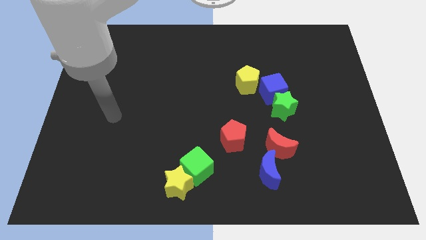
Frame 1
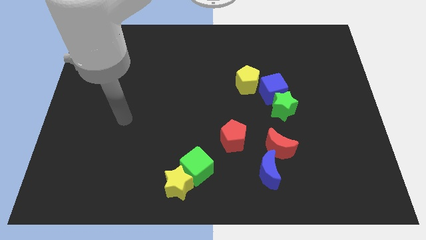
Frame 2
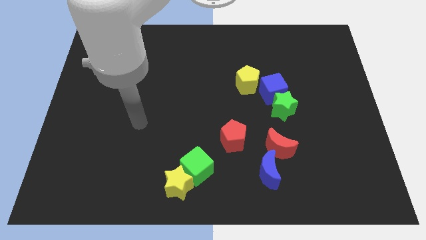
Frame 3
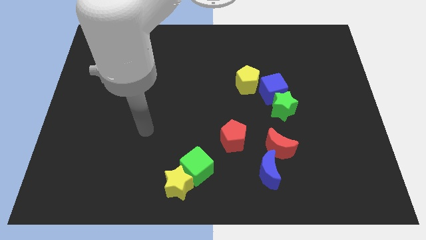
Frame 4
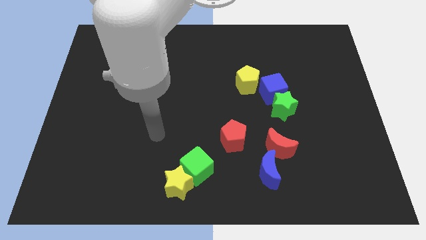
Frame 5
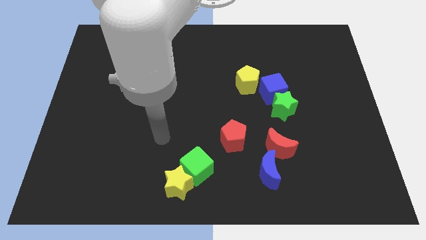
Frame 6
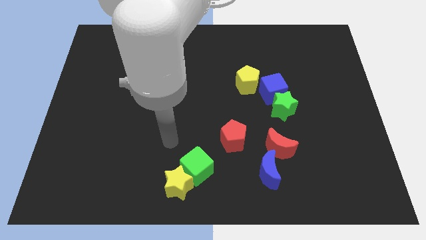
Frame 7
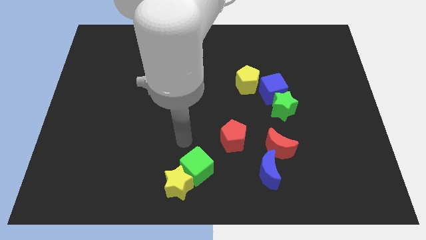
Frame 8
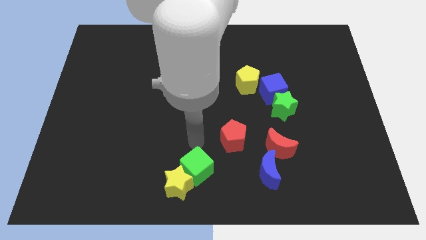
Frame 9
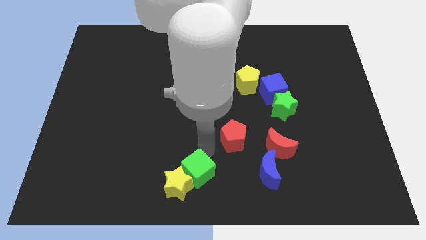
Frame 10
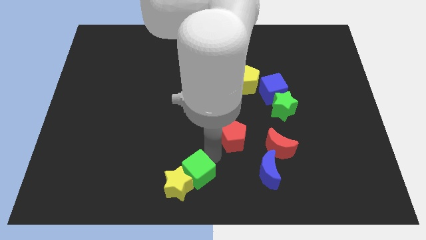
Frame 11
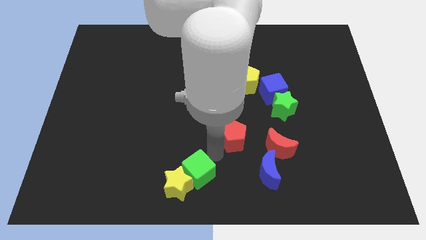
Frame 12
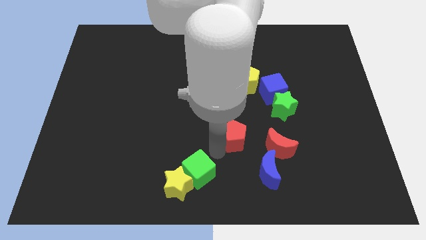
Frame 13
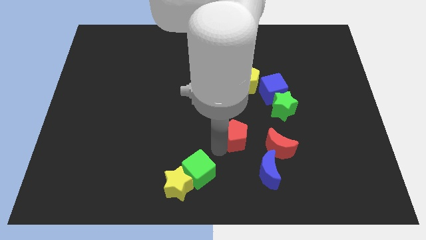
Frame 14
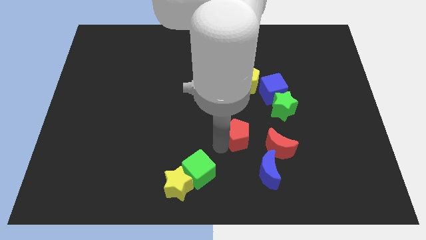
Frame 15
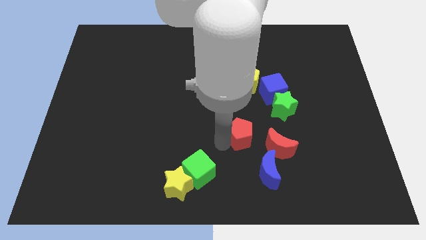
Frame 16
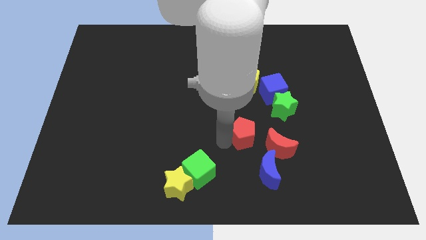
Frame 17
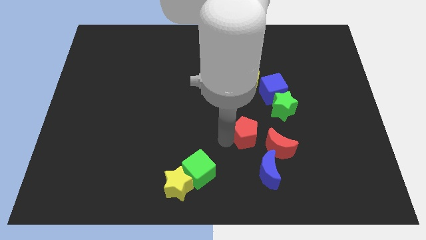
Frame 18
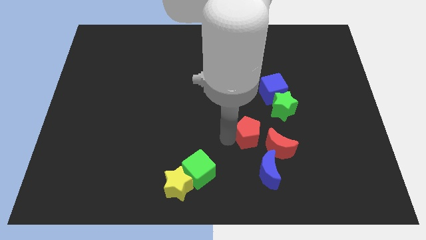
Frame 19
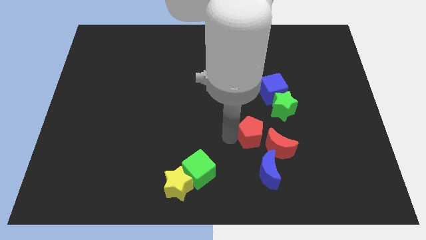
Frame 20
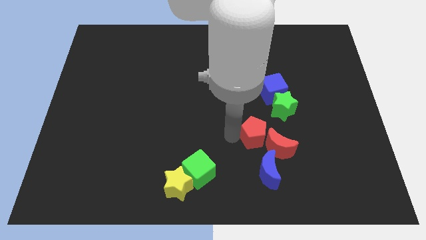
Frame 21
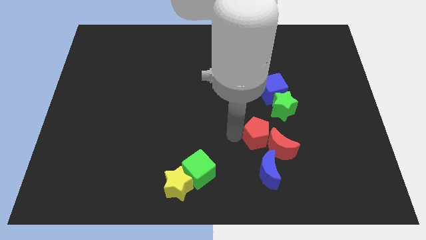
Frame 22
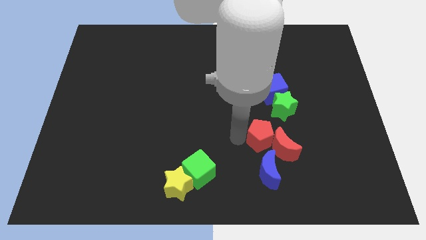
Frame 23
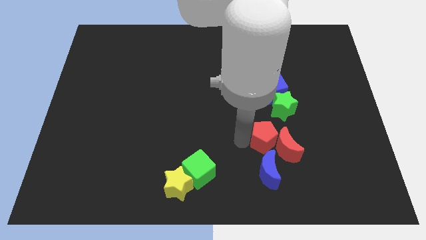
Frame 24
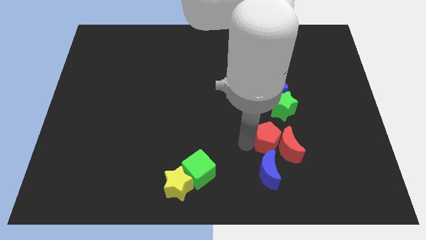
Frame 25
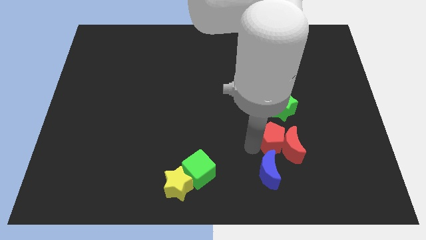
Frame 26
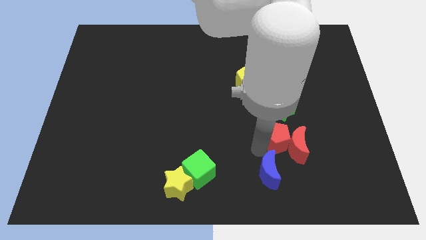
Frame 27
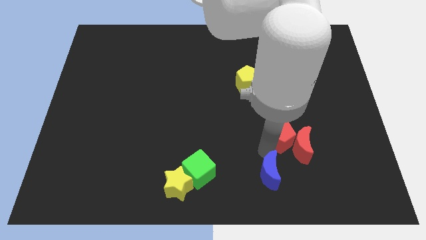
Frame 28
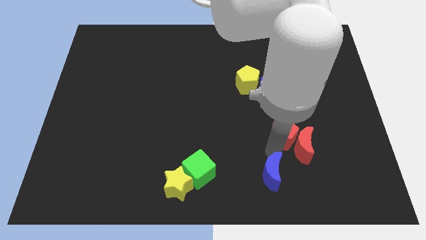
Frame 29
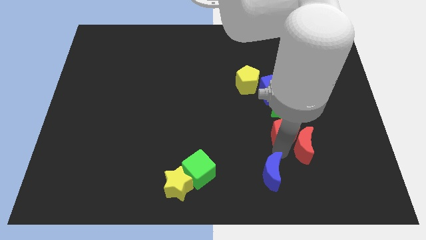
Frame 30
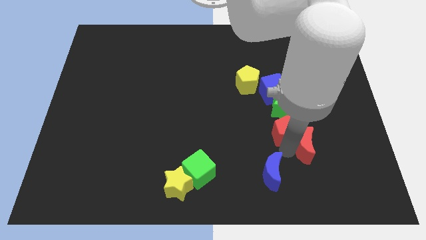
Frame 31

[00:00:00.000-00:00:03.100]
push the red pentagon a bit upwards and to the right

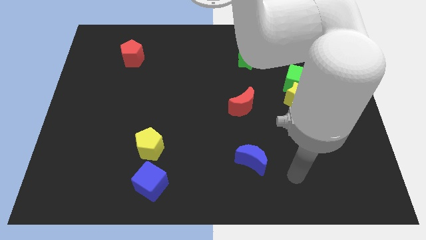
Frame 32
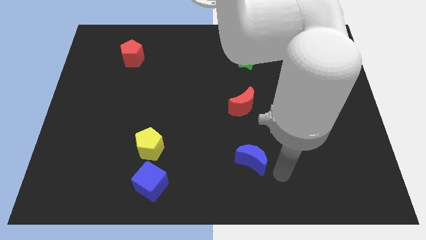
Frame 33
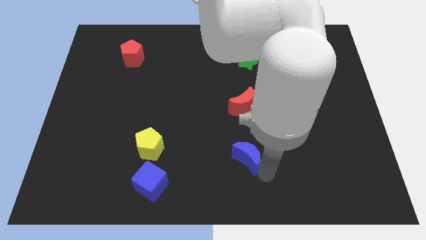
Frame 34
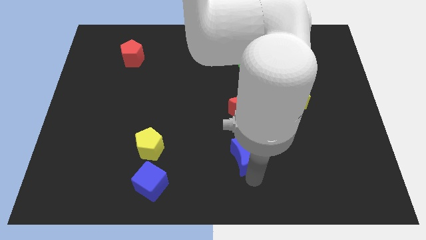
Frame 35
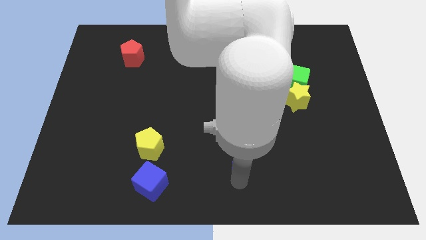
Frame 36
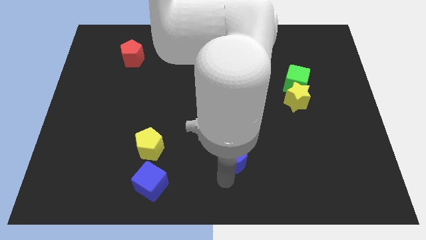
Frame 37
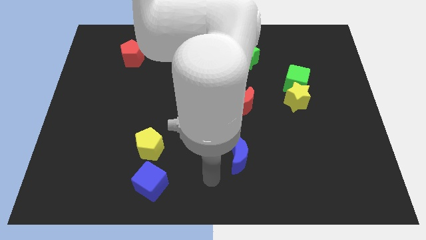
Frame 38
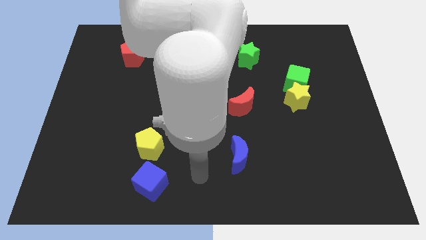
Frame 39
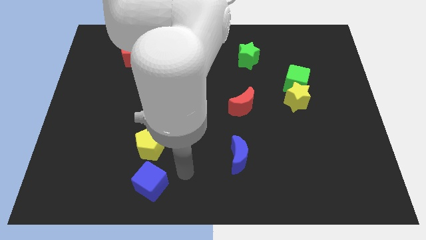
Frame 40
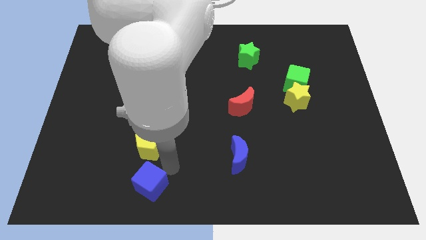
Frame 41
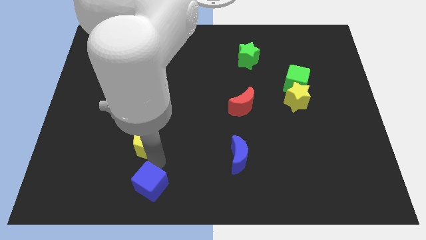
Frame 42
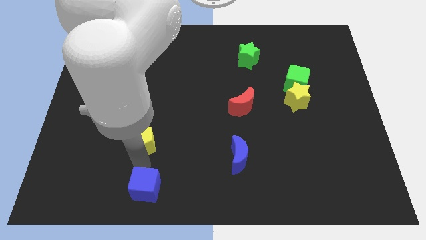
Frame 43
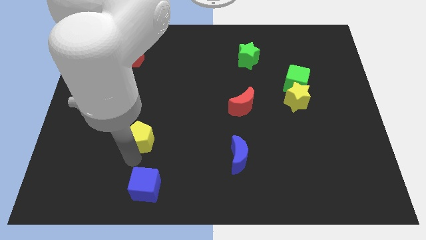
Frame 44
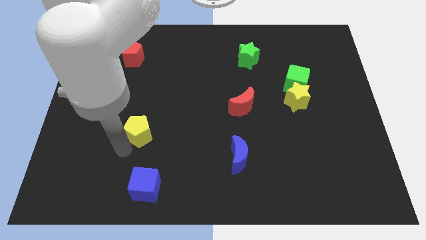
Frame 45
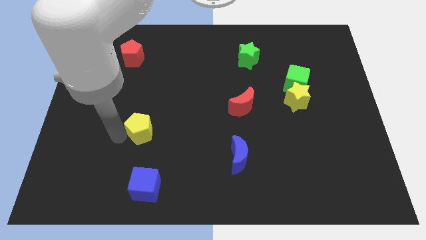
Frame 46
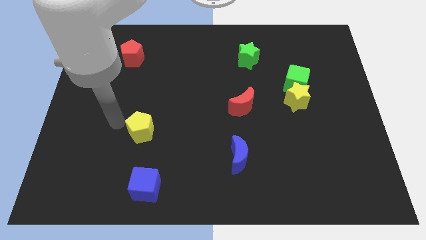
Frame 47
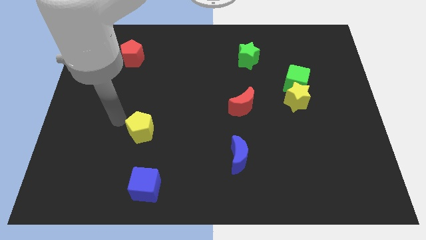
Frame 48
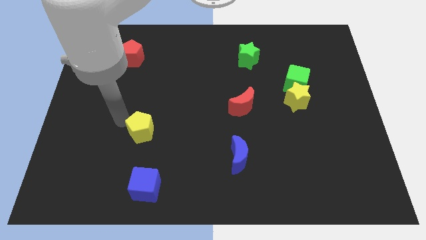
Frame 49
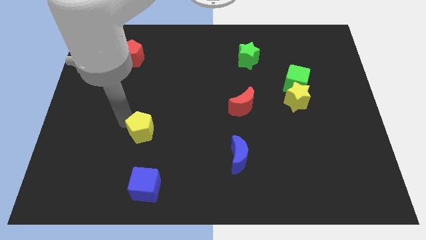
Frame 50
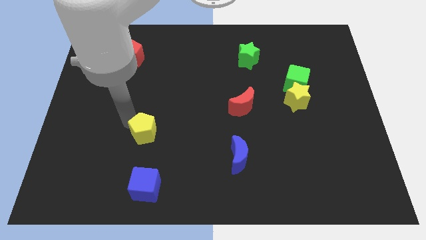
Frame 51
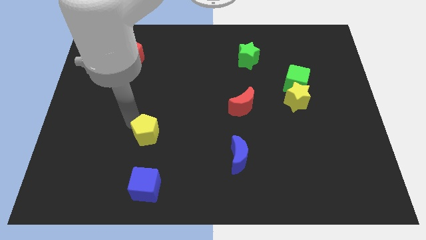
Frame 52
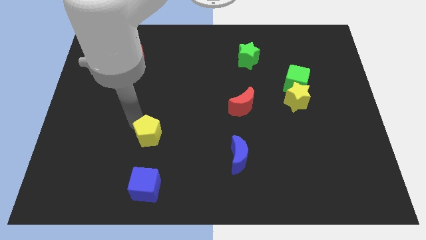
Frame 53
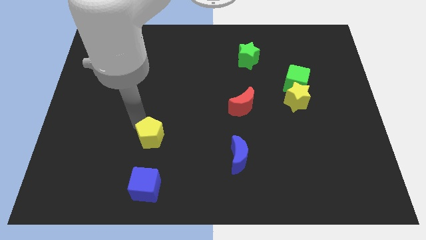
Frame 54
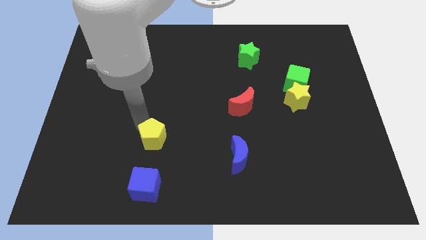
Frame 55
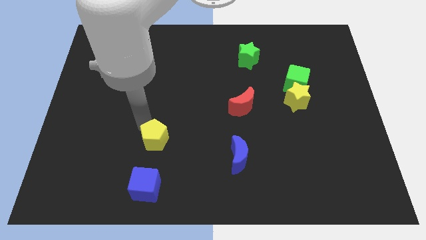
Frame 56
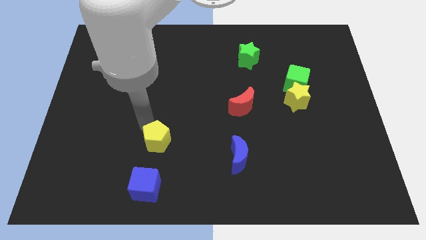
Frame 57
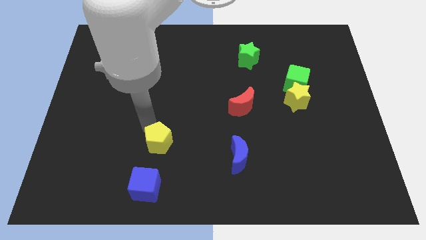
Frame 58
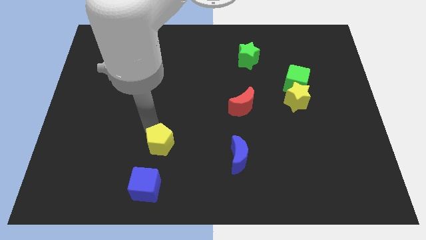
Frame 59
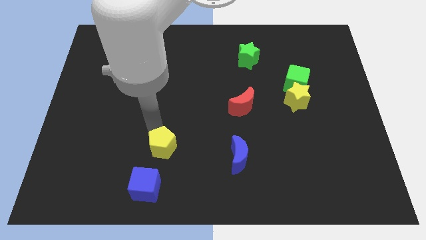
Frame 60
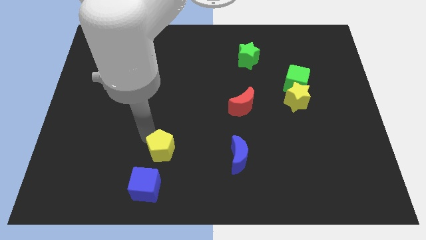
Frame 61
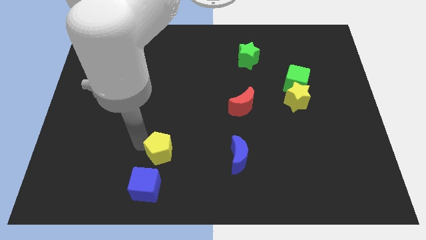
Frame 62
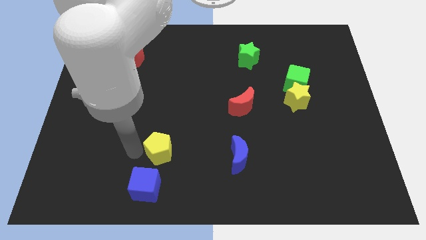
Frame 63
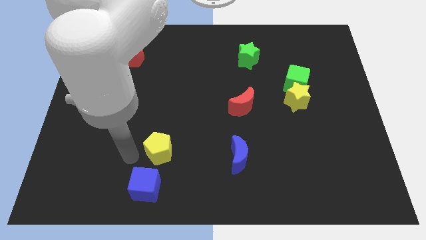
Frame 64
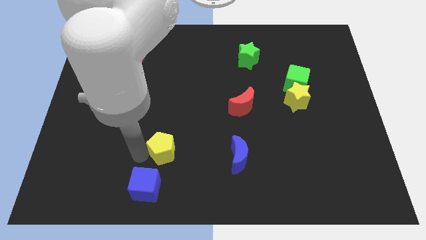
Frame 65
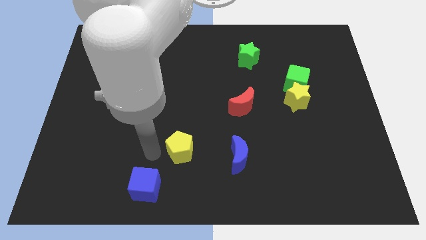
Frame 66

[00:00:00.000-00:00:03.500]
move the yellow pentagon a bit right

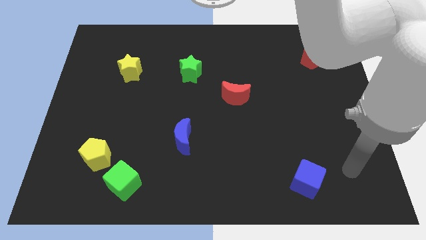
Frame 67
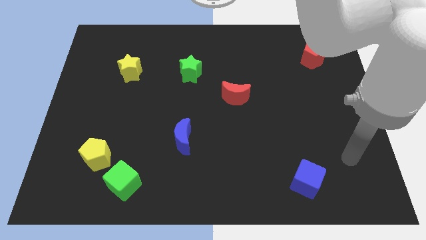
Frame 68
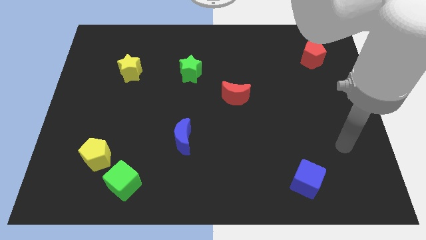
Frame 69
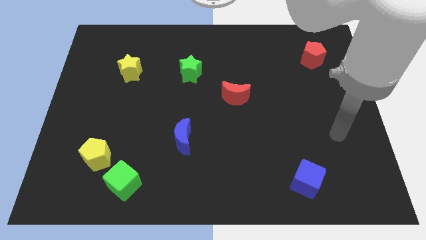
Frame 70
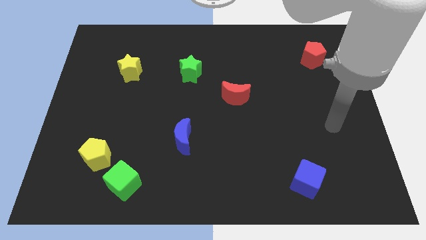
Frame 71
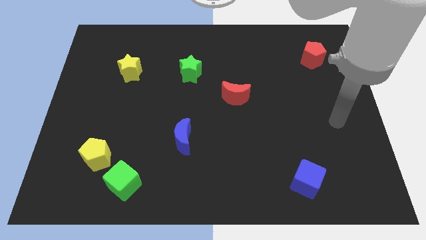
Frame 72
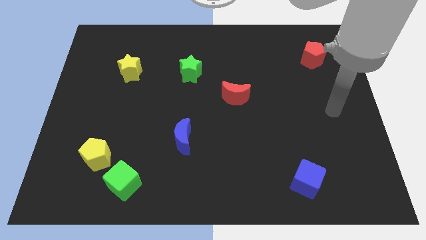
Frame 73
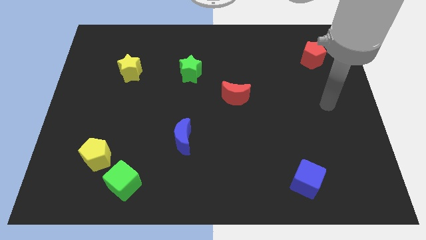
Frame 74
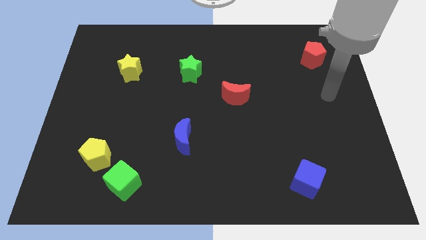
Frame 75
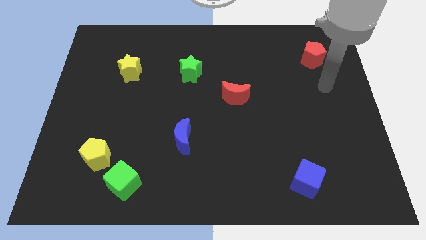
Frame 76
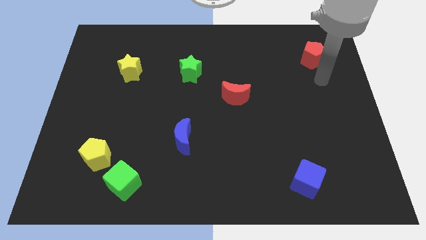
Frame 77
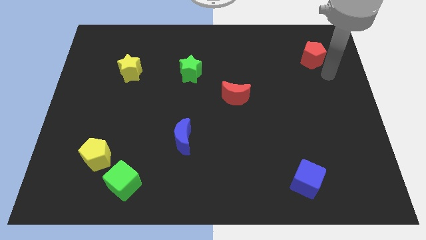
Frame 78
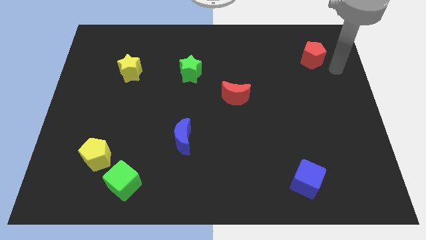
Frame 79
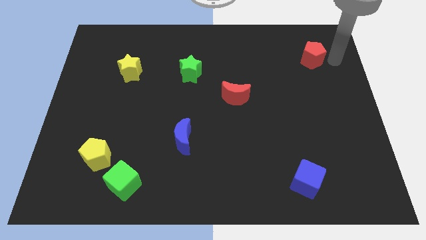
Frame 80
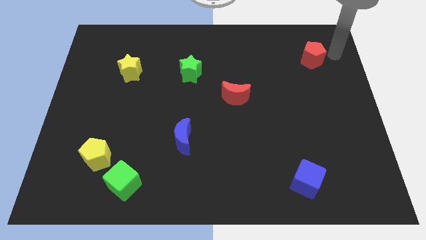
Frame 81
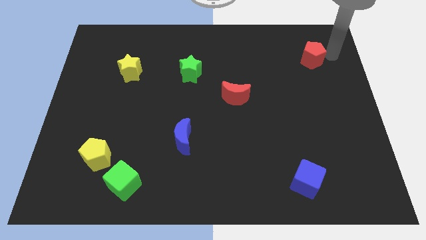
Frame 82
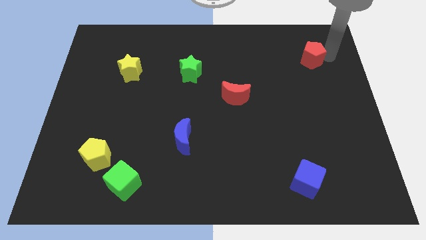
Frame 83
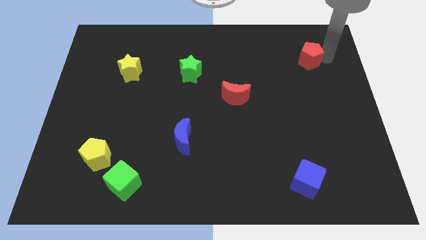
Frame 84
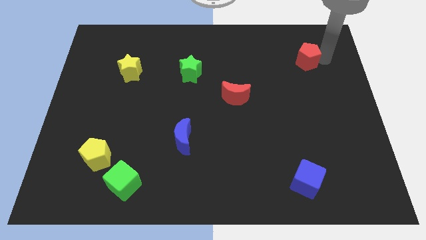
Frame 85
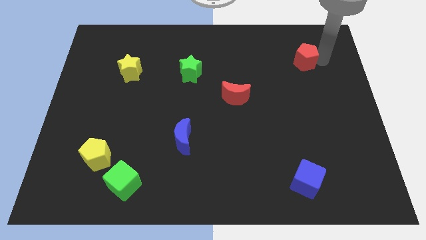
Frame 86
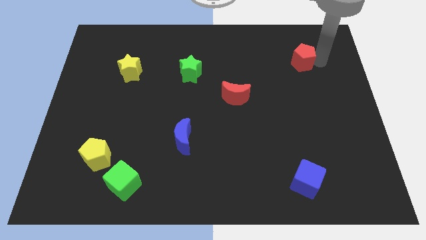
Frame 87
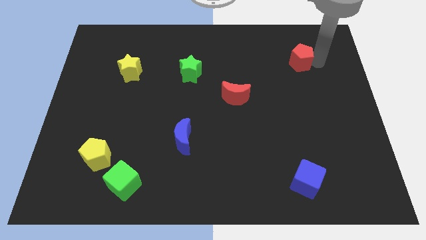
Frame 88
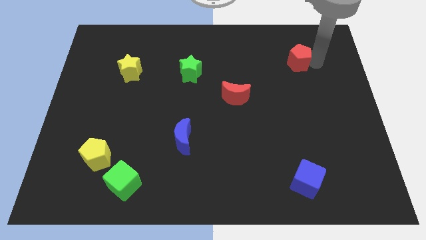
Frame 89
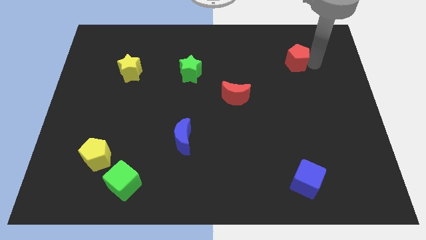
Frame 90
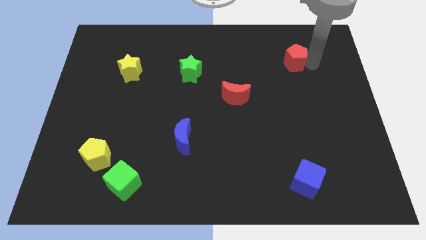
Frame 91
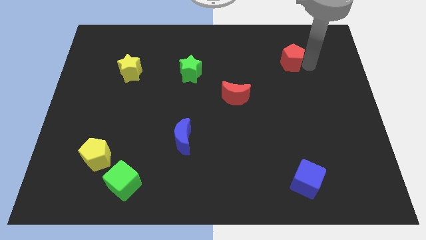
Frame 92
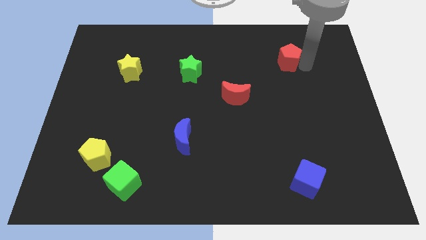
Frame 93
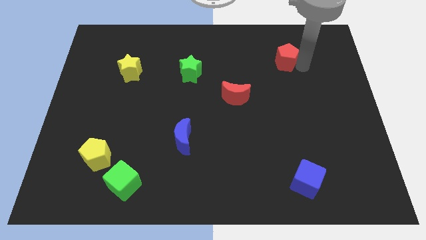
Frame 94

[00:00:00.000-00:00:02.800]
slightly slide the red pentagon to the left
